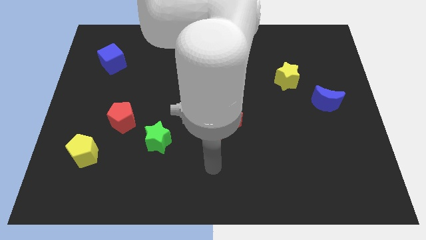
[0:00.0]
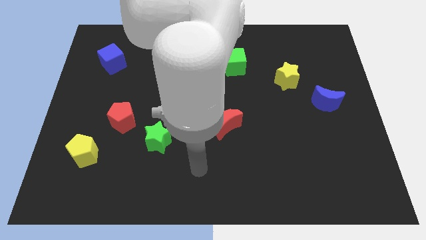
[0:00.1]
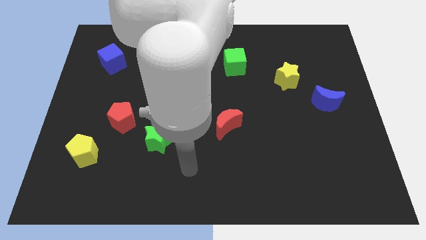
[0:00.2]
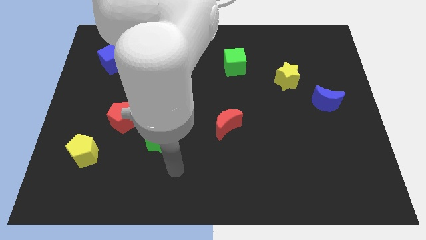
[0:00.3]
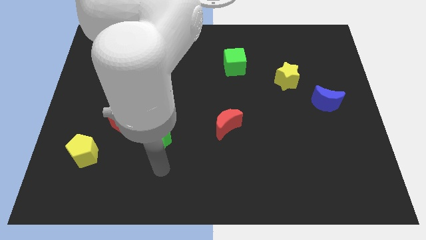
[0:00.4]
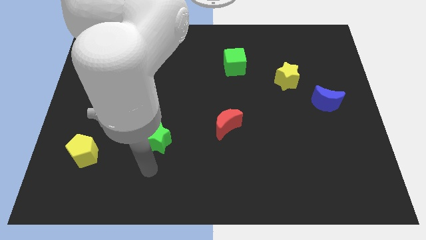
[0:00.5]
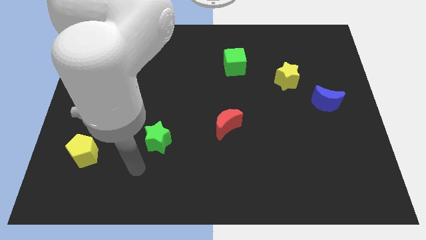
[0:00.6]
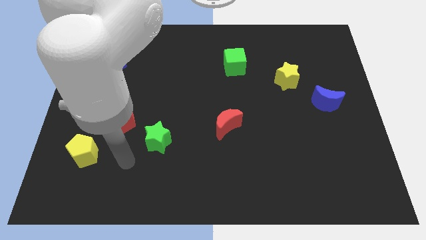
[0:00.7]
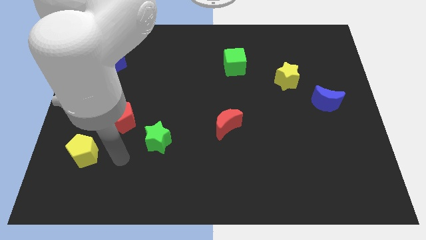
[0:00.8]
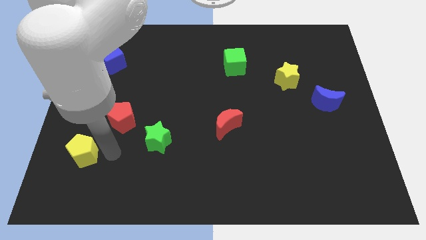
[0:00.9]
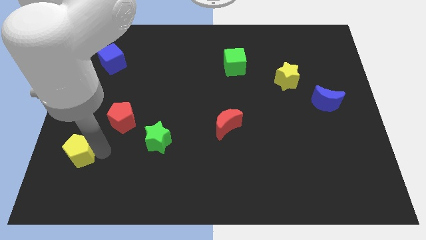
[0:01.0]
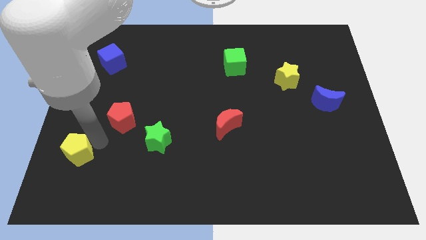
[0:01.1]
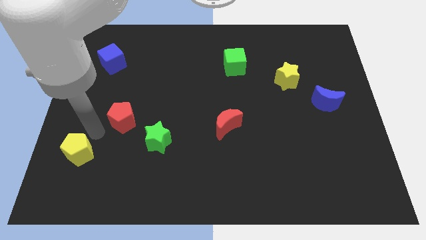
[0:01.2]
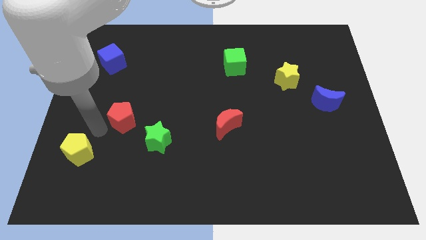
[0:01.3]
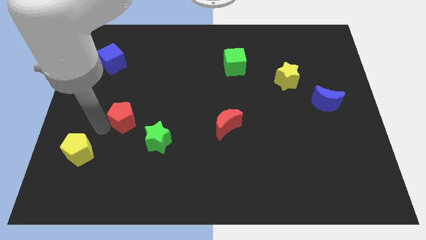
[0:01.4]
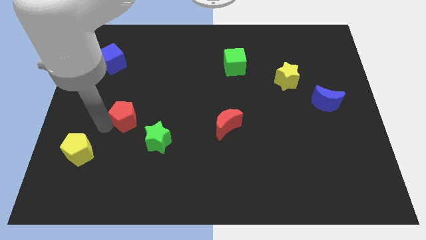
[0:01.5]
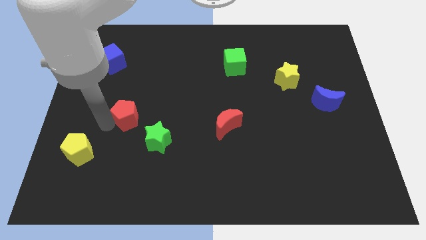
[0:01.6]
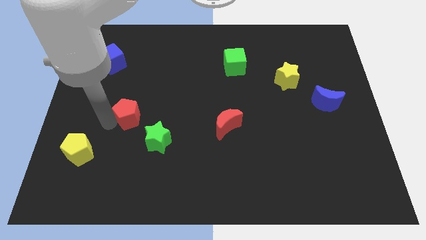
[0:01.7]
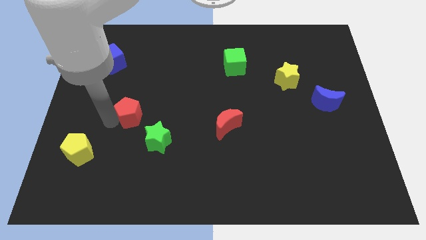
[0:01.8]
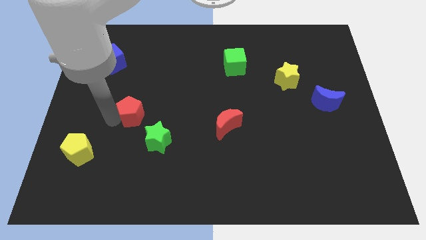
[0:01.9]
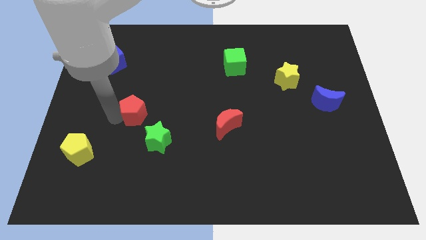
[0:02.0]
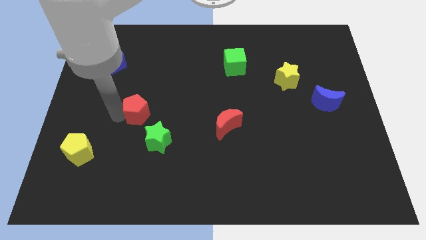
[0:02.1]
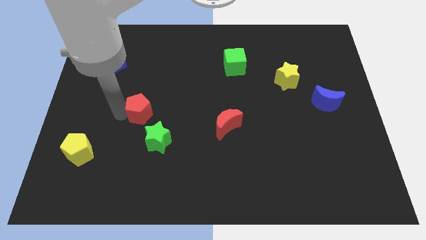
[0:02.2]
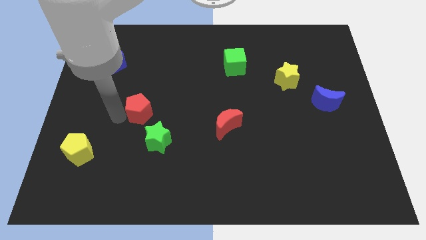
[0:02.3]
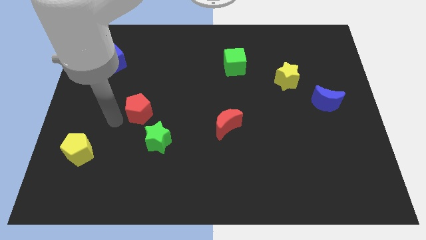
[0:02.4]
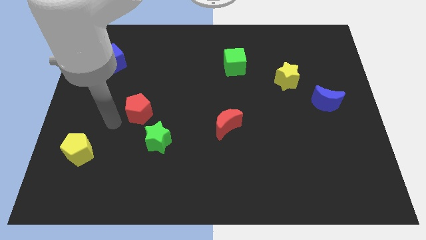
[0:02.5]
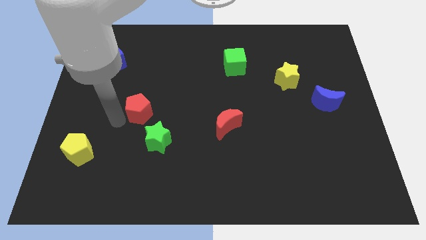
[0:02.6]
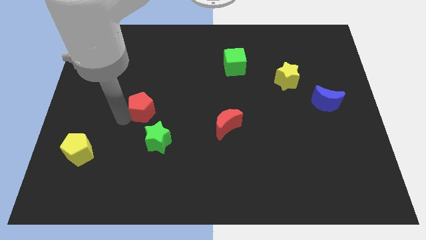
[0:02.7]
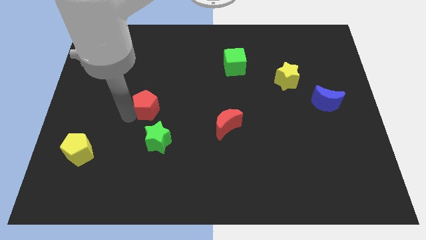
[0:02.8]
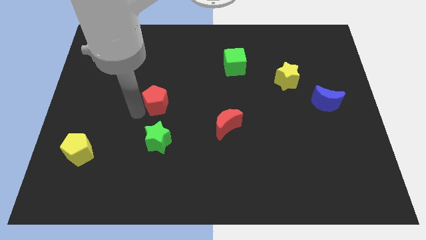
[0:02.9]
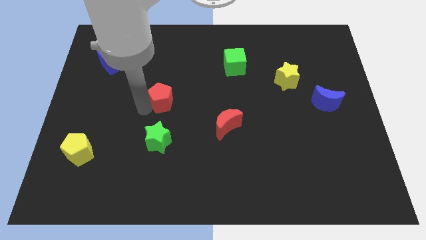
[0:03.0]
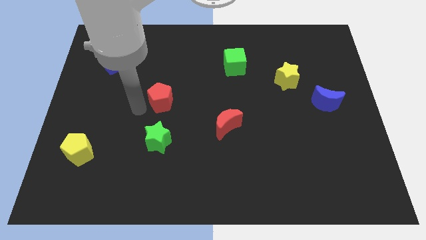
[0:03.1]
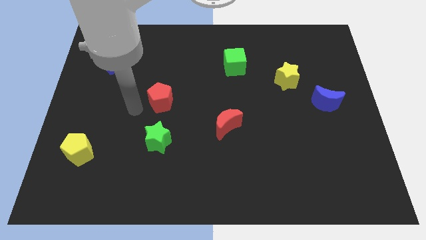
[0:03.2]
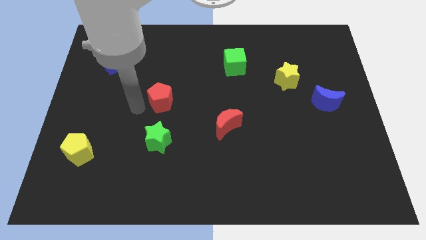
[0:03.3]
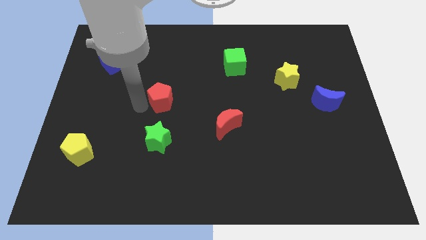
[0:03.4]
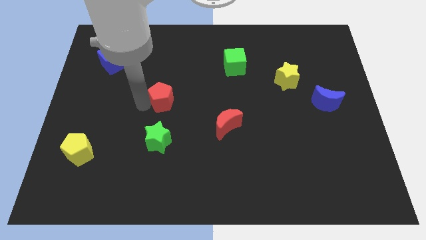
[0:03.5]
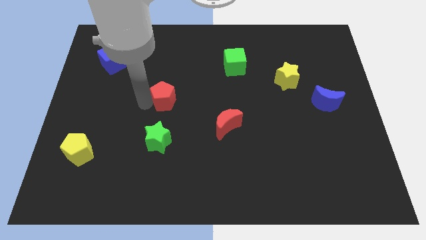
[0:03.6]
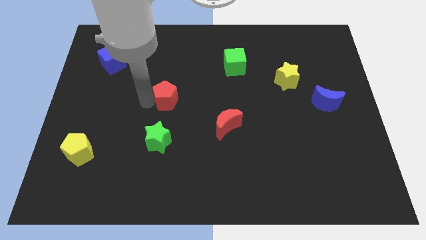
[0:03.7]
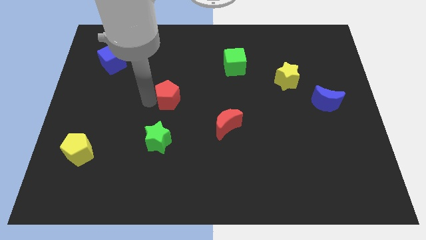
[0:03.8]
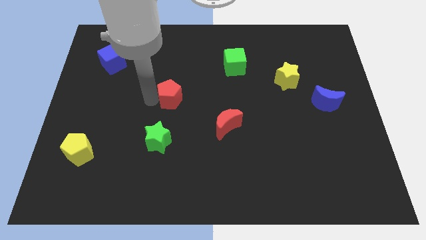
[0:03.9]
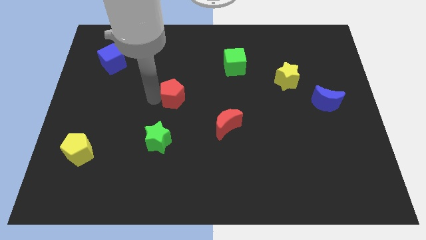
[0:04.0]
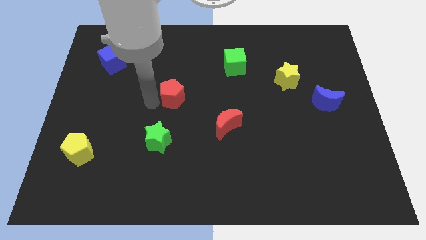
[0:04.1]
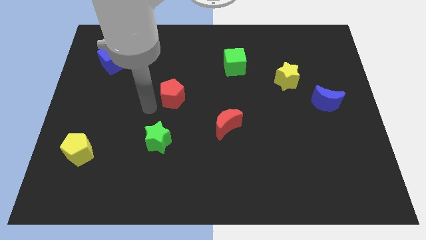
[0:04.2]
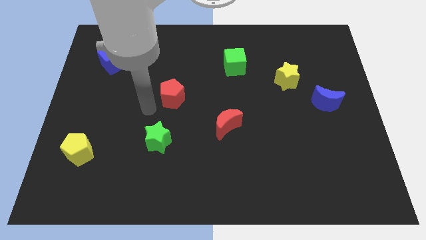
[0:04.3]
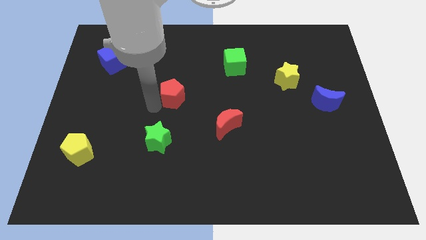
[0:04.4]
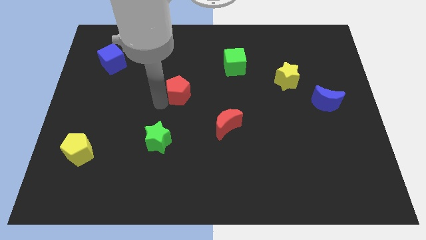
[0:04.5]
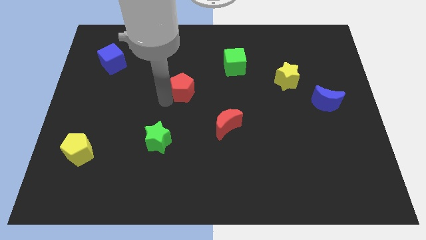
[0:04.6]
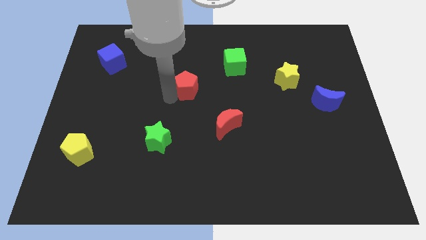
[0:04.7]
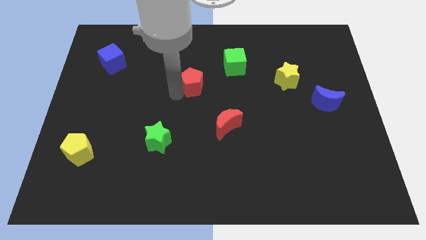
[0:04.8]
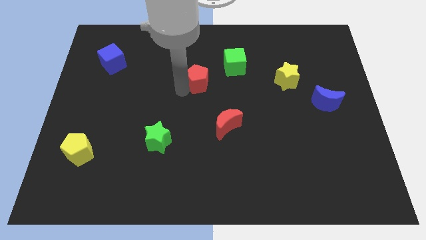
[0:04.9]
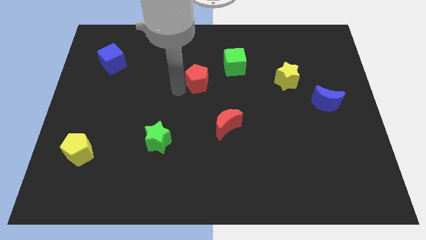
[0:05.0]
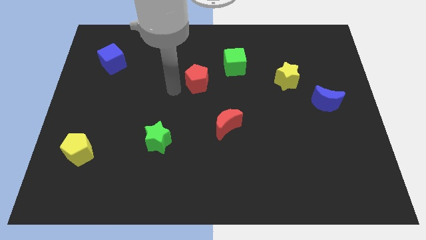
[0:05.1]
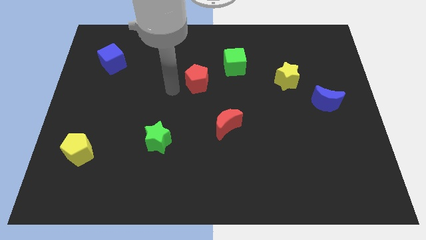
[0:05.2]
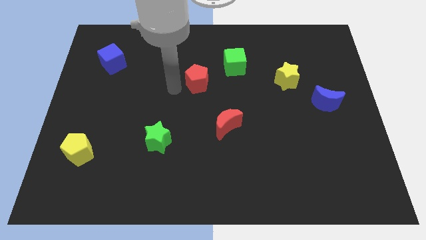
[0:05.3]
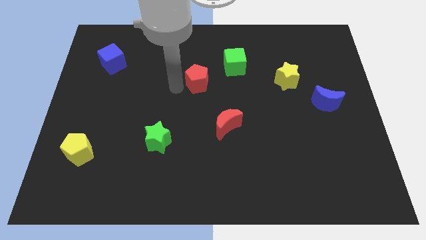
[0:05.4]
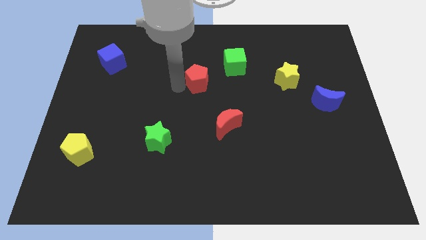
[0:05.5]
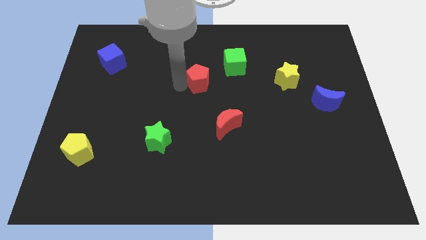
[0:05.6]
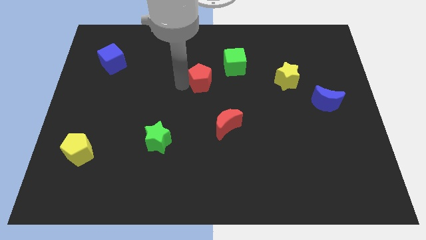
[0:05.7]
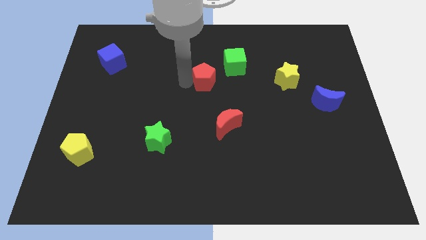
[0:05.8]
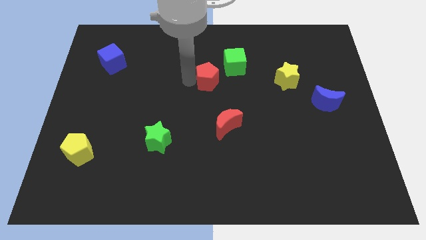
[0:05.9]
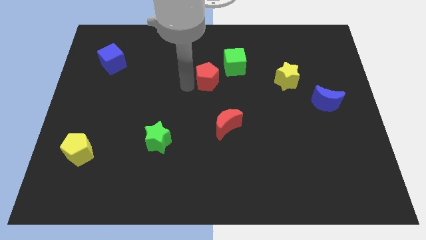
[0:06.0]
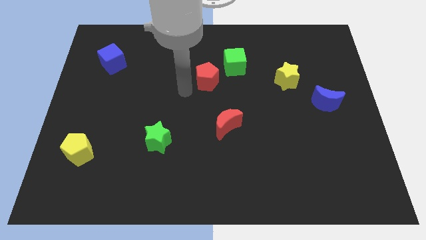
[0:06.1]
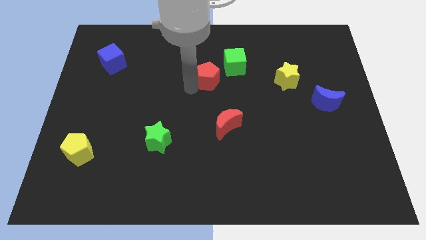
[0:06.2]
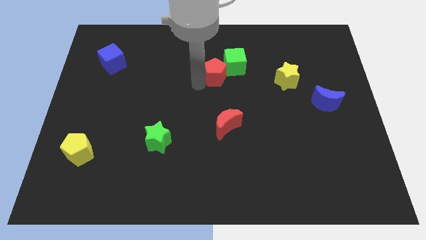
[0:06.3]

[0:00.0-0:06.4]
slide the red pentagon towards the green cube

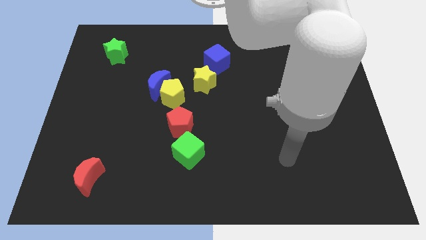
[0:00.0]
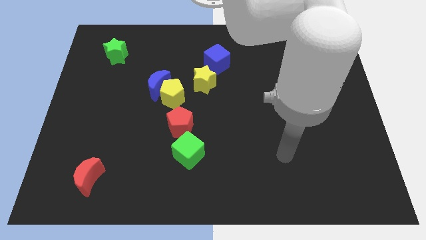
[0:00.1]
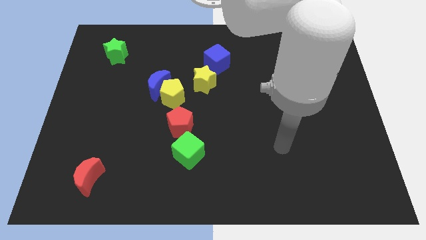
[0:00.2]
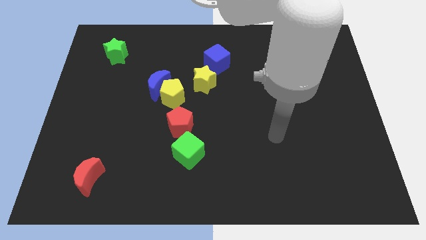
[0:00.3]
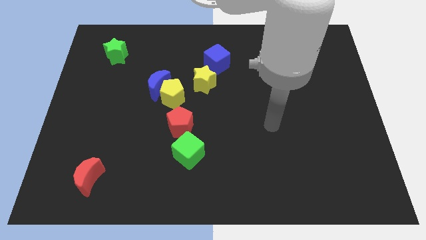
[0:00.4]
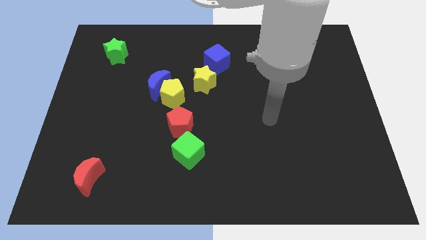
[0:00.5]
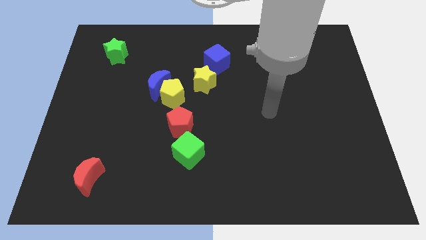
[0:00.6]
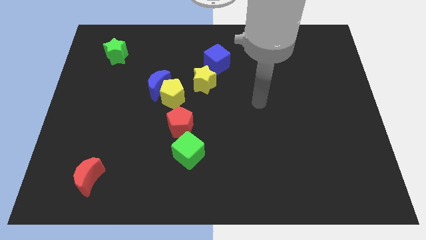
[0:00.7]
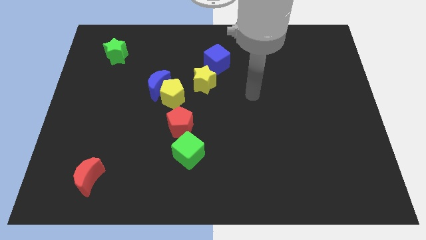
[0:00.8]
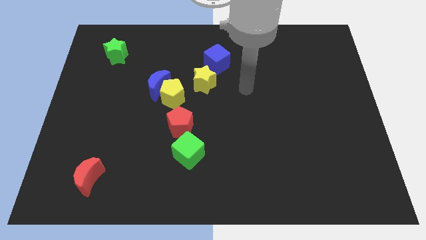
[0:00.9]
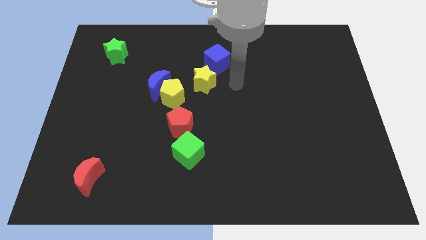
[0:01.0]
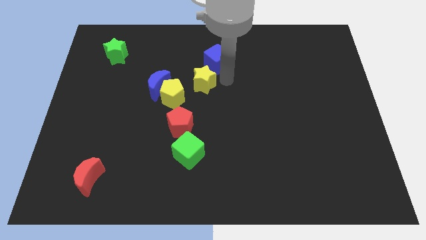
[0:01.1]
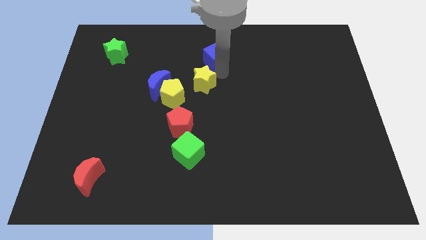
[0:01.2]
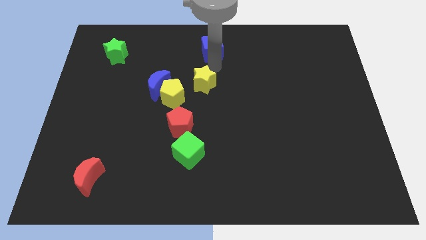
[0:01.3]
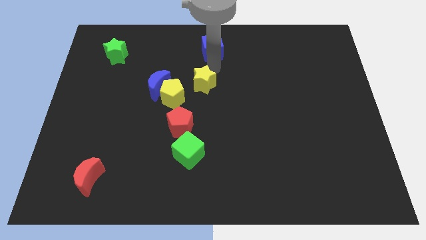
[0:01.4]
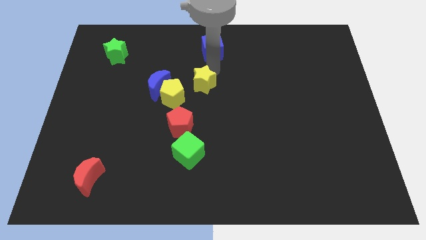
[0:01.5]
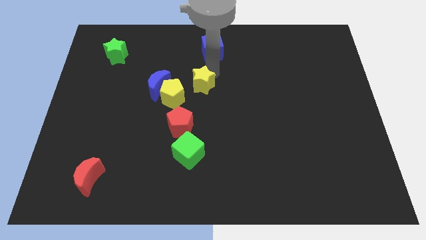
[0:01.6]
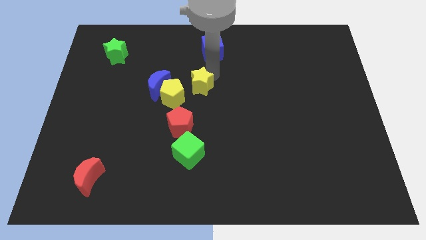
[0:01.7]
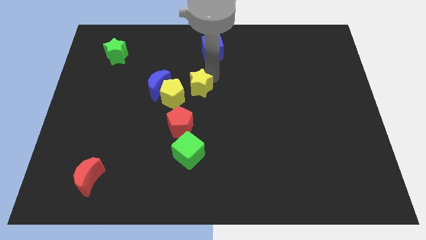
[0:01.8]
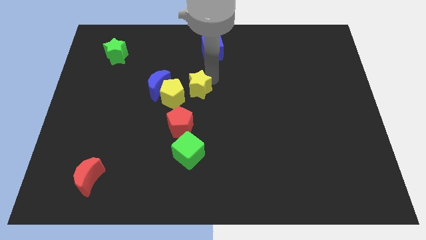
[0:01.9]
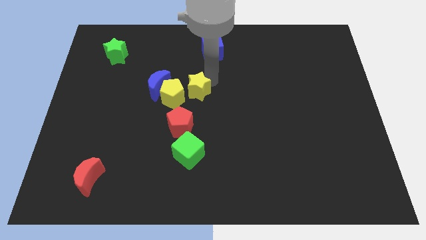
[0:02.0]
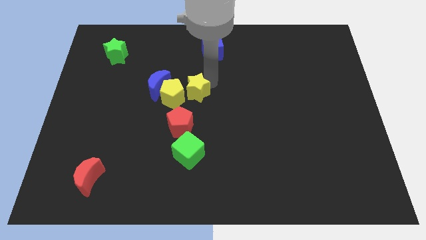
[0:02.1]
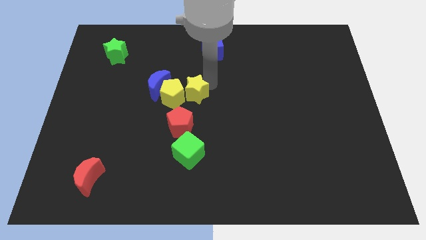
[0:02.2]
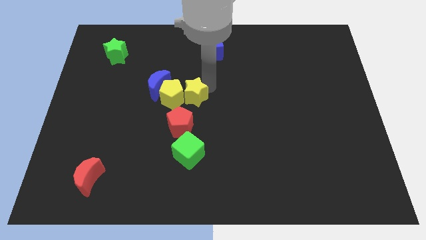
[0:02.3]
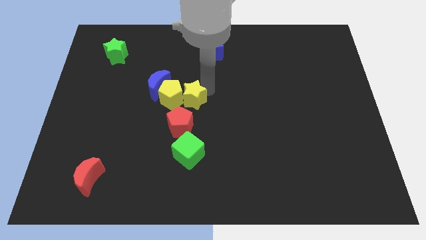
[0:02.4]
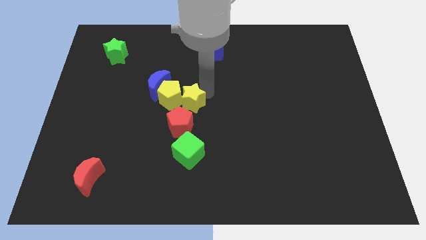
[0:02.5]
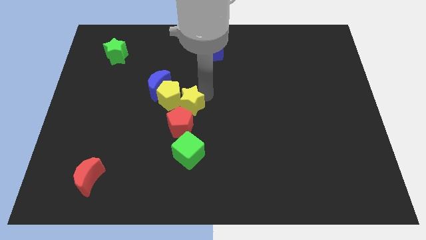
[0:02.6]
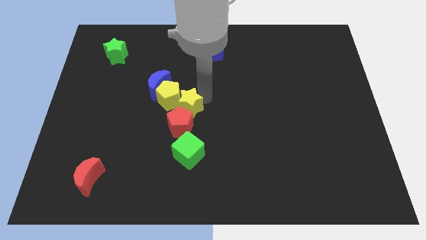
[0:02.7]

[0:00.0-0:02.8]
put the yellow star close to the red pentagon
